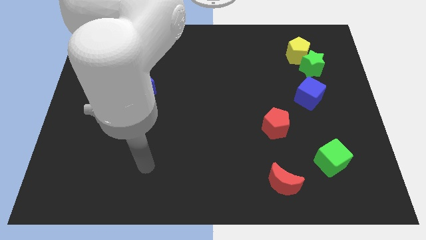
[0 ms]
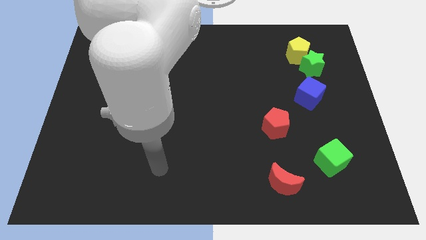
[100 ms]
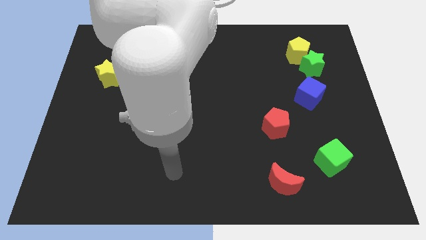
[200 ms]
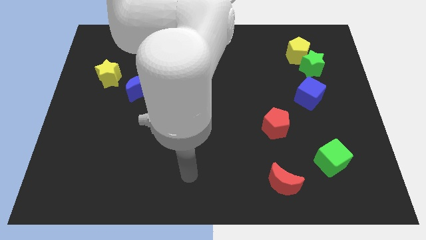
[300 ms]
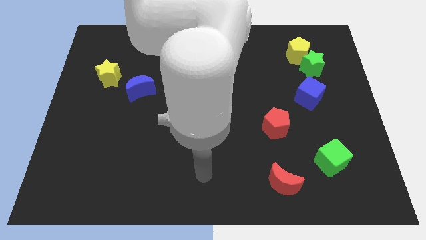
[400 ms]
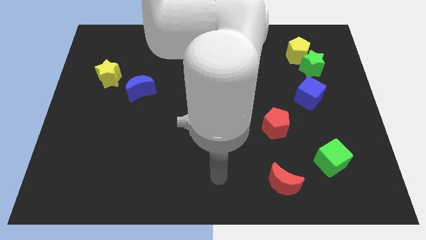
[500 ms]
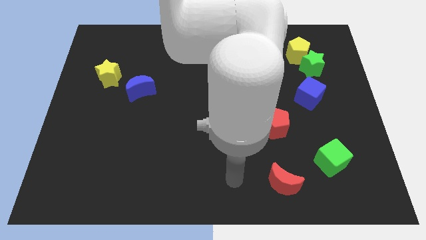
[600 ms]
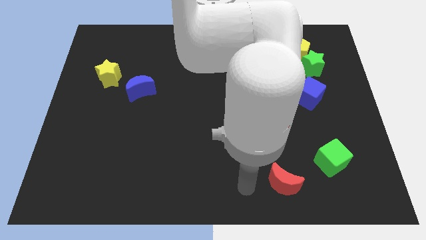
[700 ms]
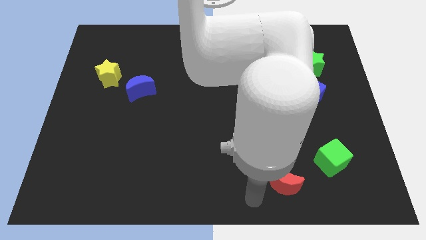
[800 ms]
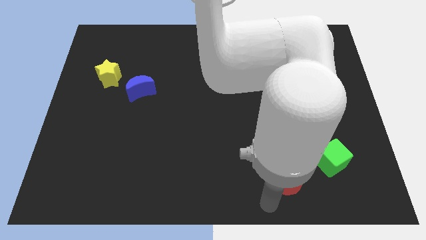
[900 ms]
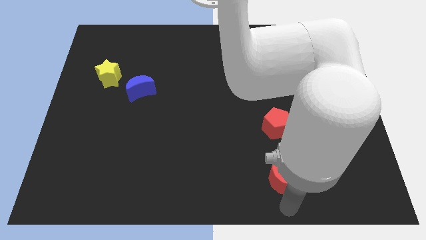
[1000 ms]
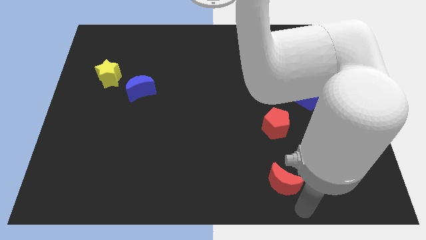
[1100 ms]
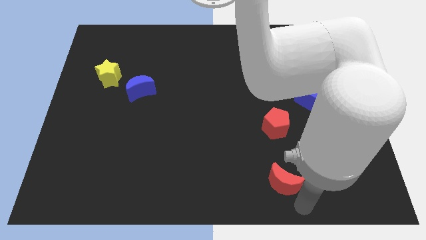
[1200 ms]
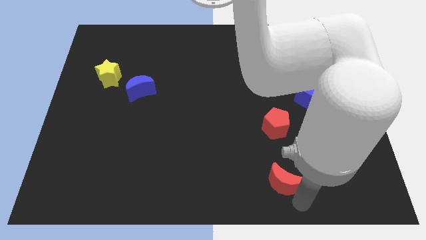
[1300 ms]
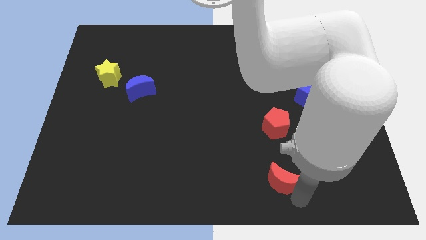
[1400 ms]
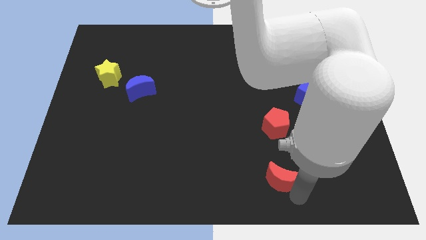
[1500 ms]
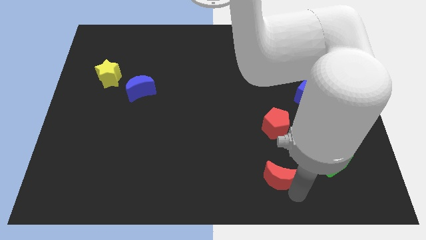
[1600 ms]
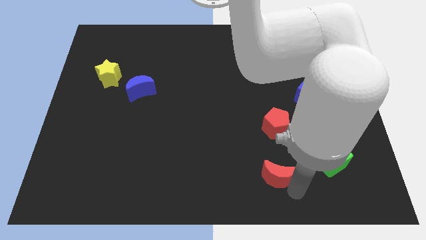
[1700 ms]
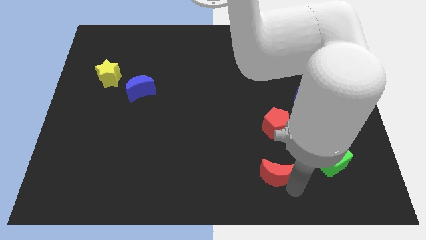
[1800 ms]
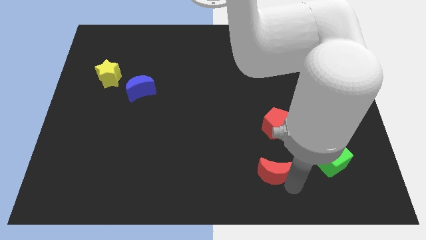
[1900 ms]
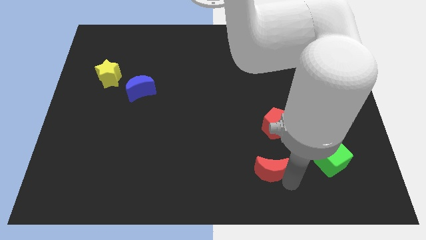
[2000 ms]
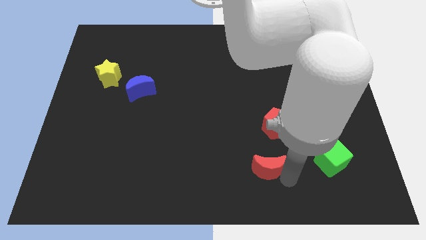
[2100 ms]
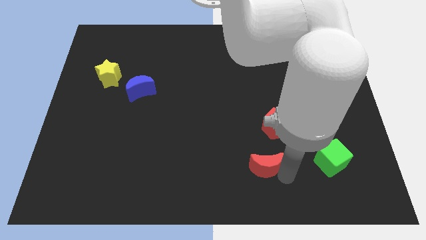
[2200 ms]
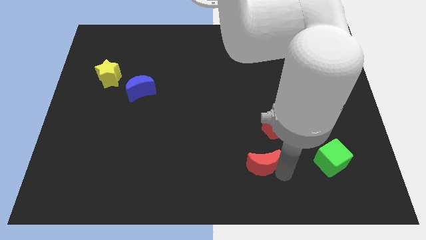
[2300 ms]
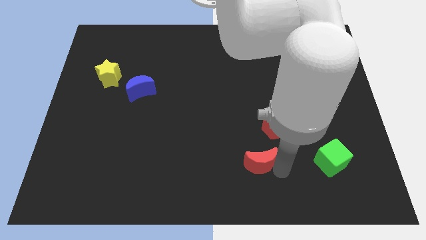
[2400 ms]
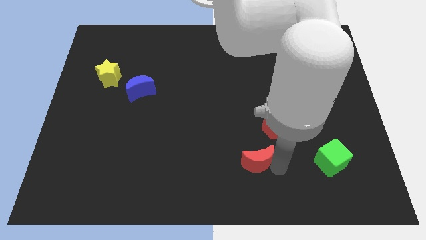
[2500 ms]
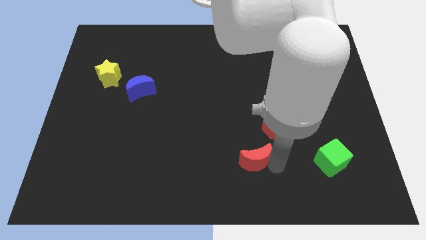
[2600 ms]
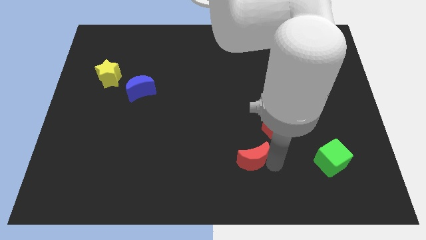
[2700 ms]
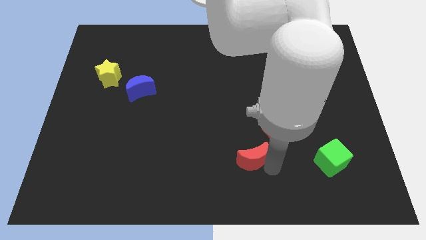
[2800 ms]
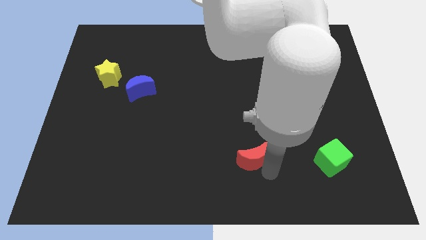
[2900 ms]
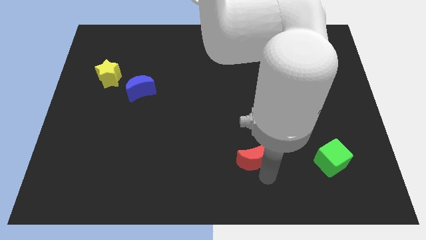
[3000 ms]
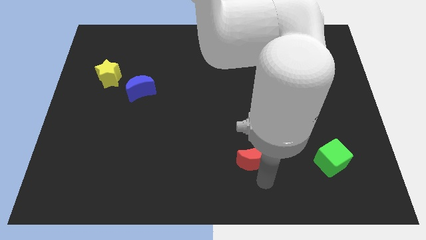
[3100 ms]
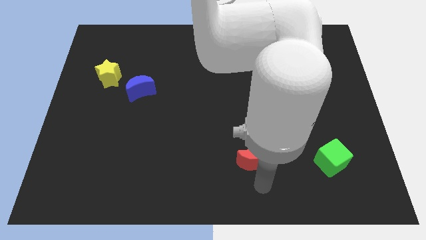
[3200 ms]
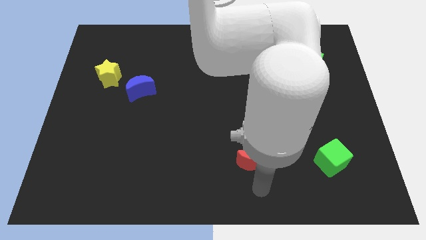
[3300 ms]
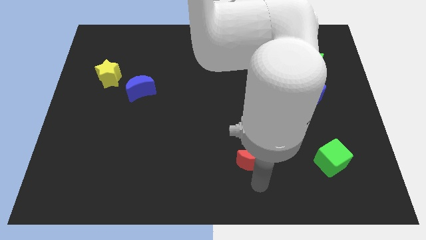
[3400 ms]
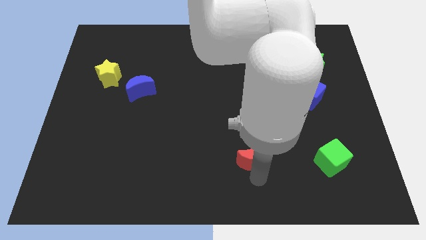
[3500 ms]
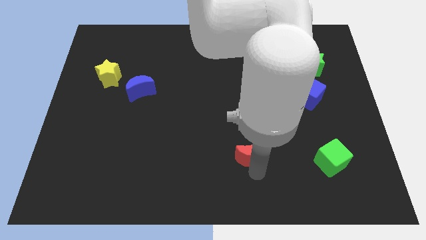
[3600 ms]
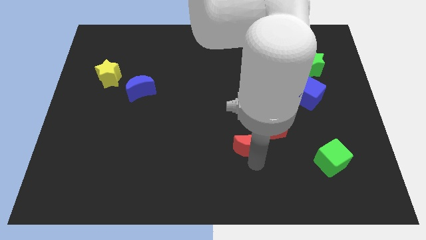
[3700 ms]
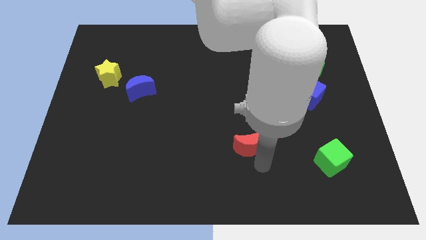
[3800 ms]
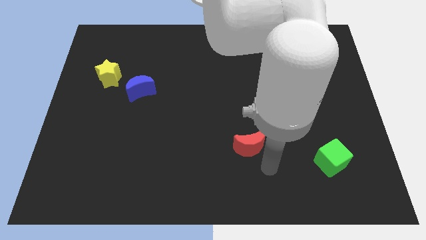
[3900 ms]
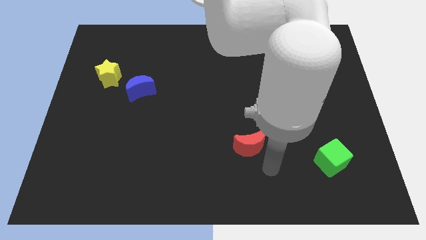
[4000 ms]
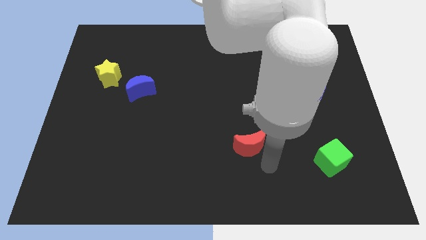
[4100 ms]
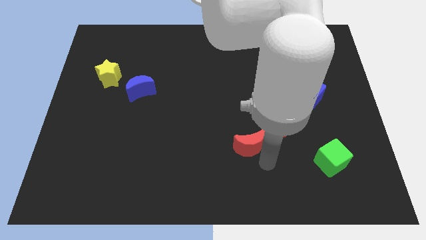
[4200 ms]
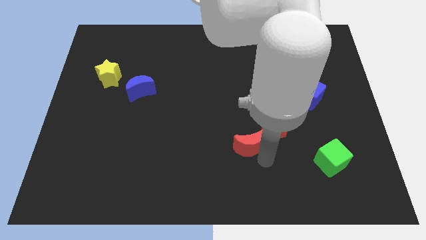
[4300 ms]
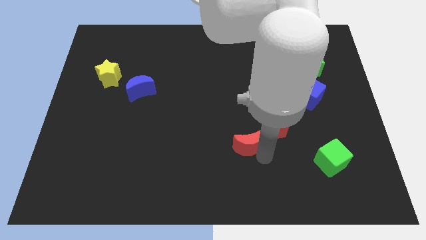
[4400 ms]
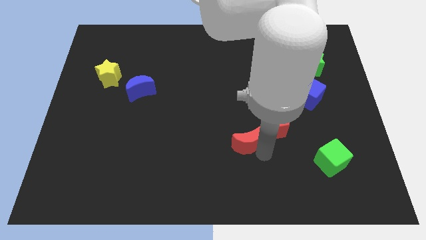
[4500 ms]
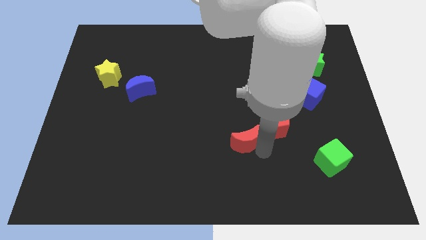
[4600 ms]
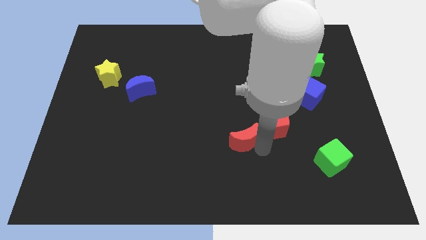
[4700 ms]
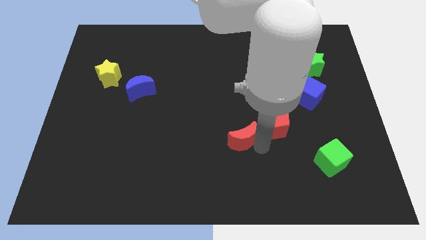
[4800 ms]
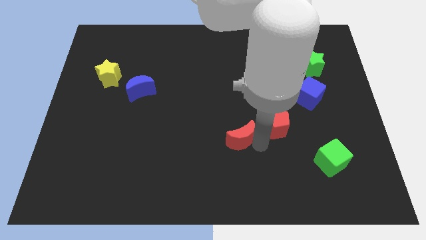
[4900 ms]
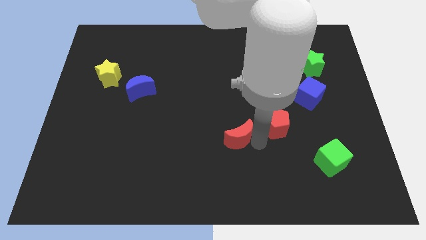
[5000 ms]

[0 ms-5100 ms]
move the red moon to the middle of the board

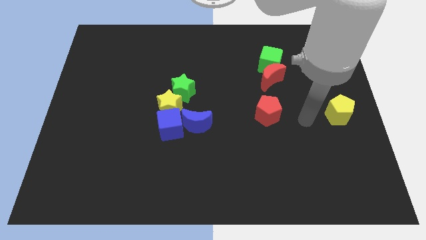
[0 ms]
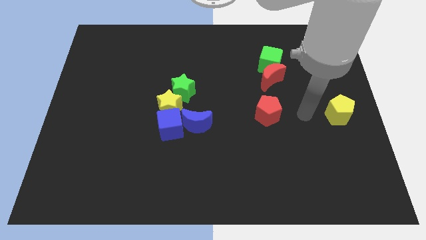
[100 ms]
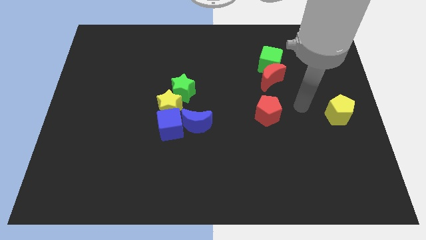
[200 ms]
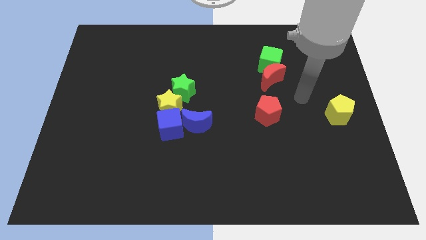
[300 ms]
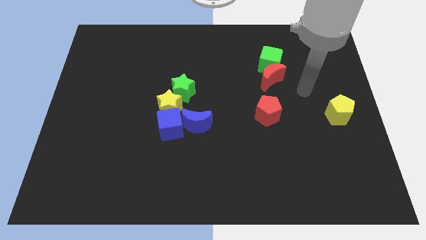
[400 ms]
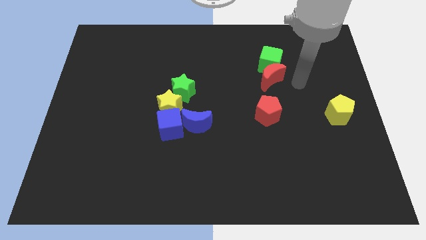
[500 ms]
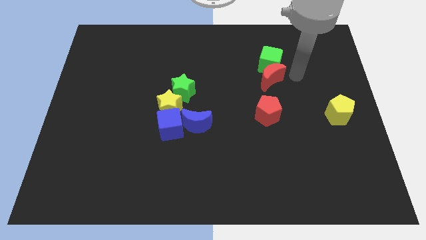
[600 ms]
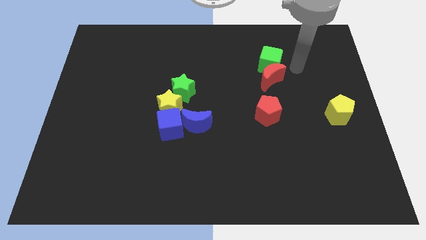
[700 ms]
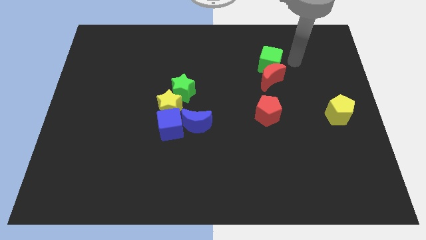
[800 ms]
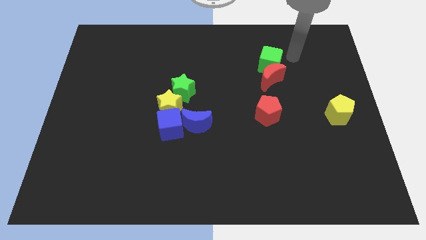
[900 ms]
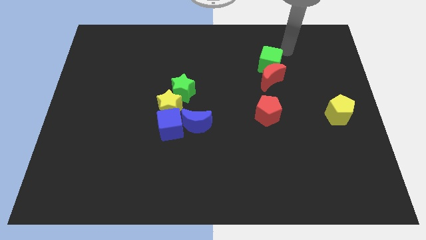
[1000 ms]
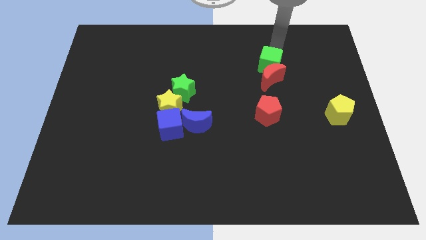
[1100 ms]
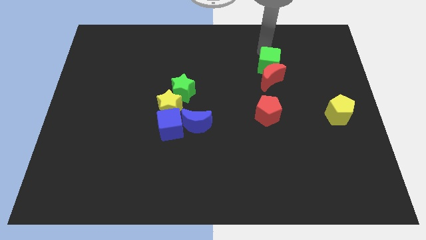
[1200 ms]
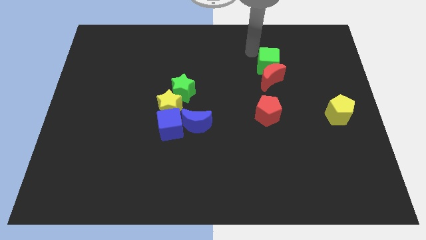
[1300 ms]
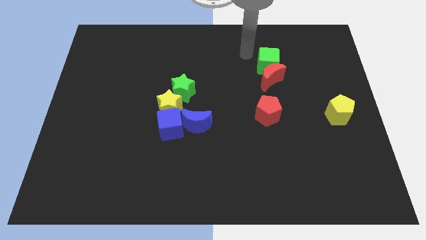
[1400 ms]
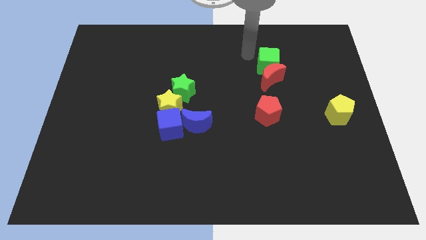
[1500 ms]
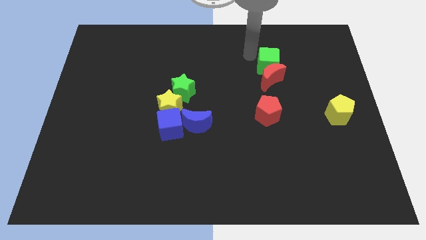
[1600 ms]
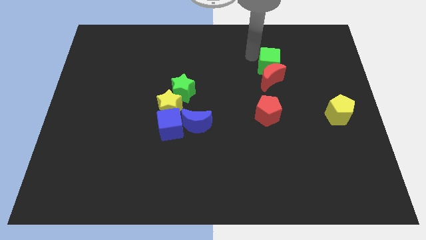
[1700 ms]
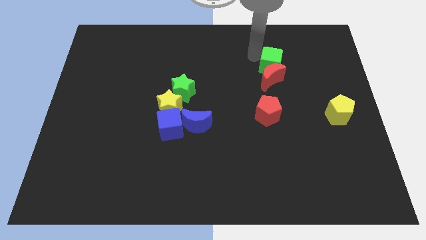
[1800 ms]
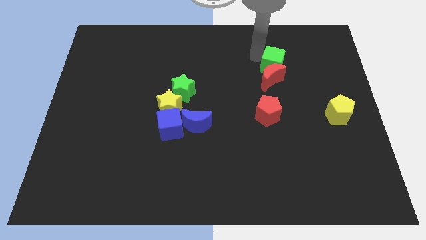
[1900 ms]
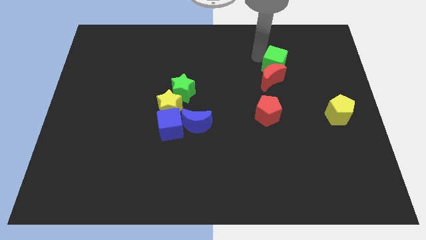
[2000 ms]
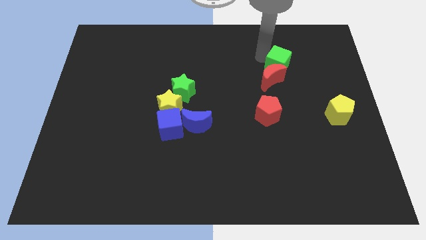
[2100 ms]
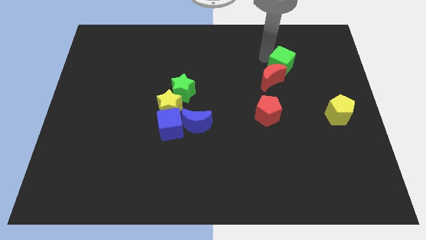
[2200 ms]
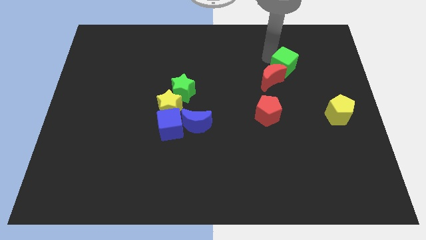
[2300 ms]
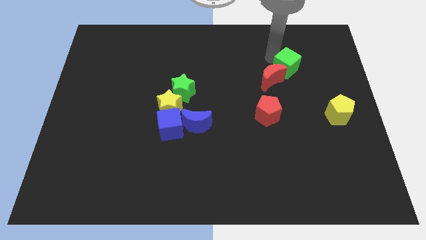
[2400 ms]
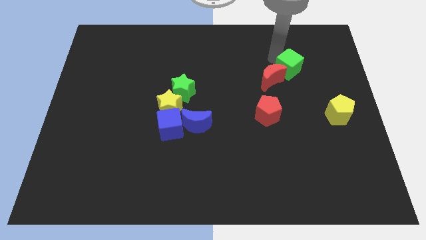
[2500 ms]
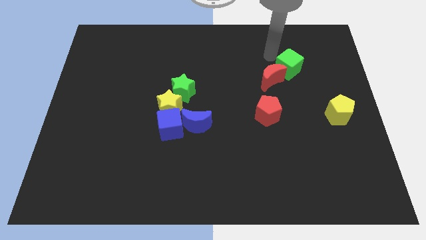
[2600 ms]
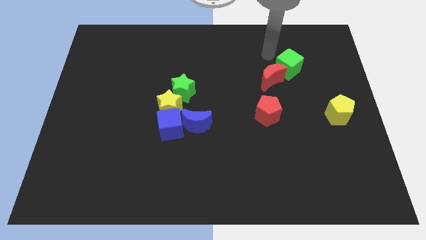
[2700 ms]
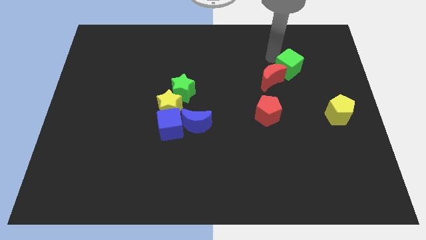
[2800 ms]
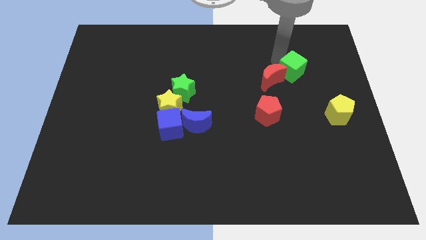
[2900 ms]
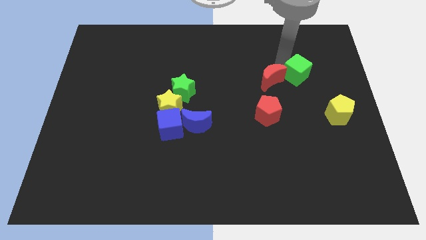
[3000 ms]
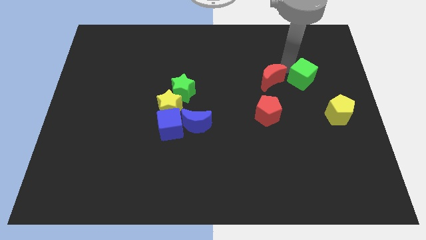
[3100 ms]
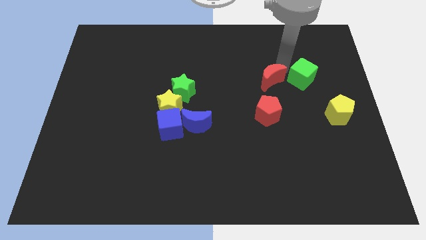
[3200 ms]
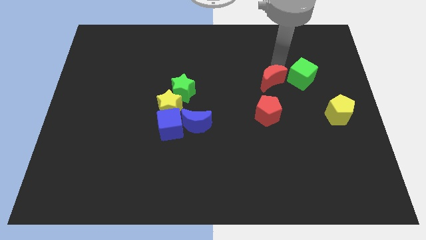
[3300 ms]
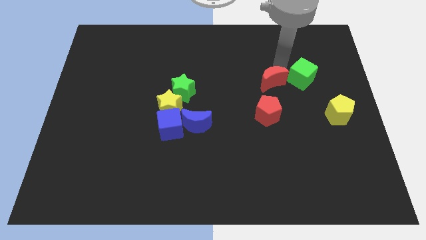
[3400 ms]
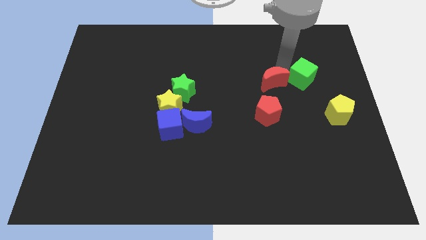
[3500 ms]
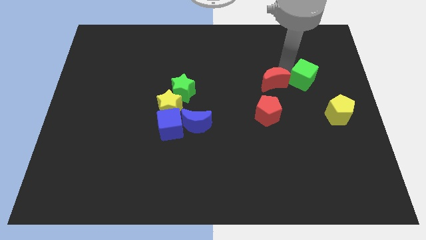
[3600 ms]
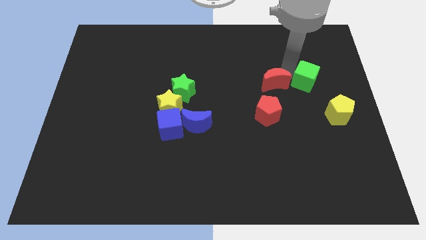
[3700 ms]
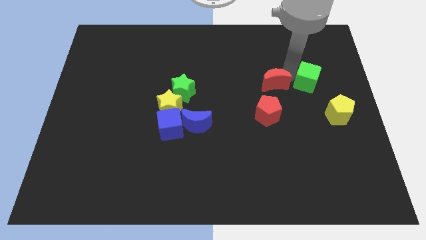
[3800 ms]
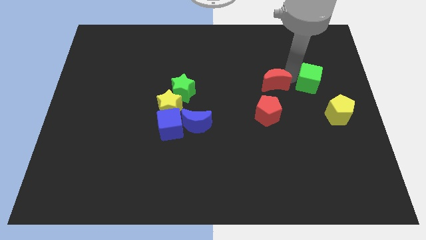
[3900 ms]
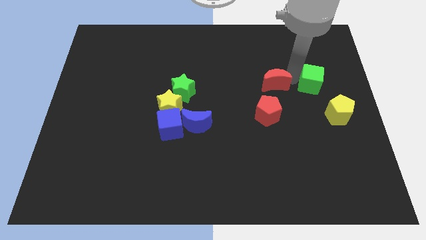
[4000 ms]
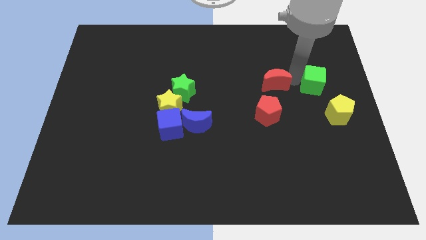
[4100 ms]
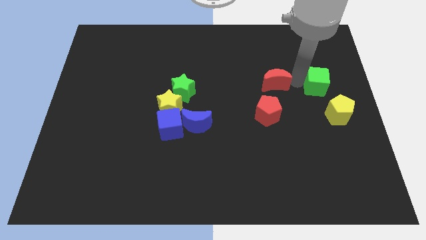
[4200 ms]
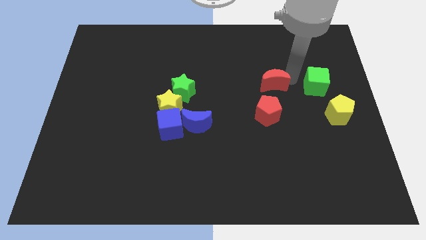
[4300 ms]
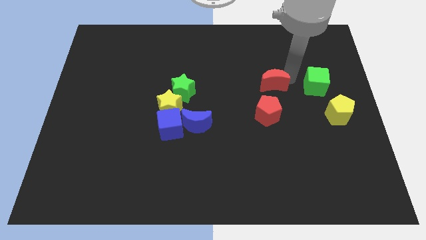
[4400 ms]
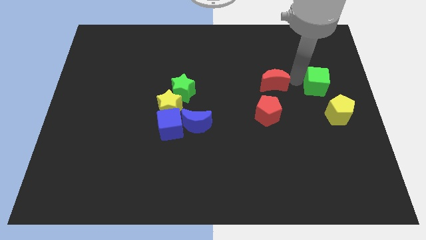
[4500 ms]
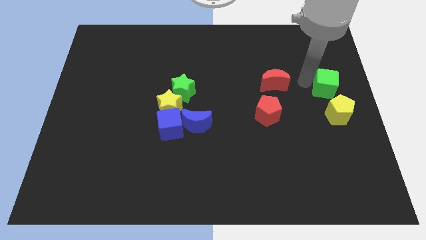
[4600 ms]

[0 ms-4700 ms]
slide the green cube to the right side
